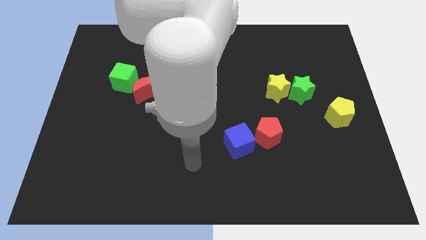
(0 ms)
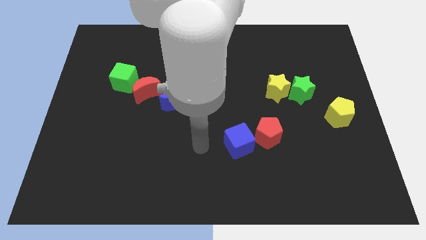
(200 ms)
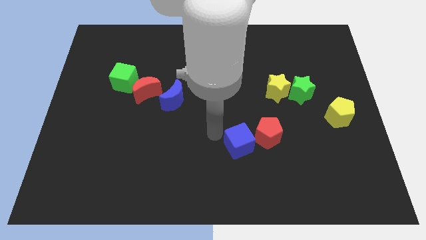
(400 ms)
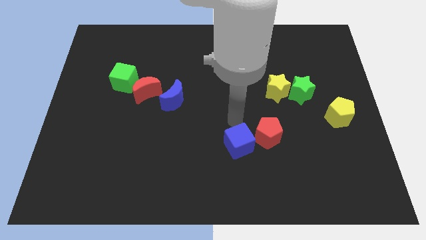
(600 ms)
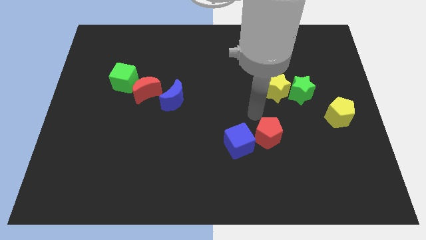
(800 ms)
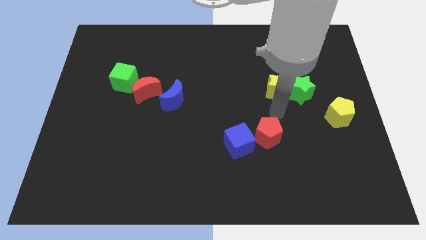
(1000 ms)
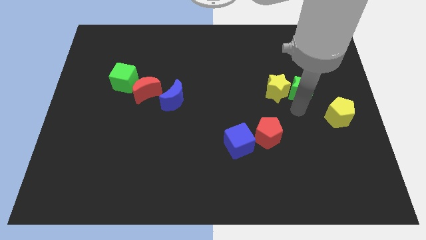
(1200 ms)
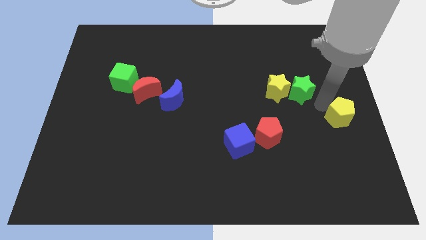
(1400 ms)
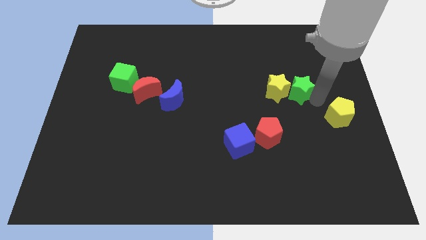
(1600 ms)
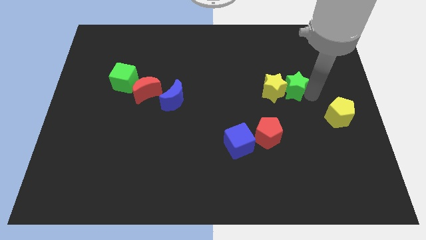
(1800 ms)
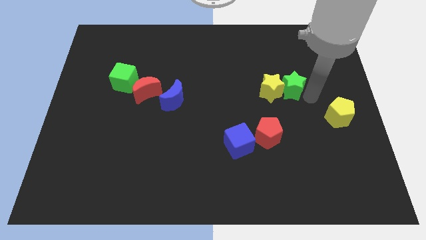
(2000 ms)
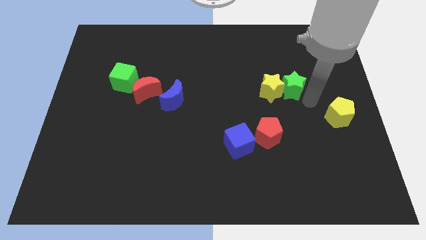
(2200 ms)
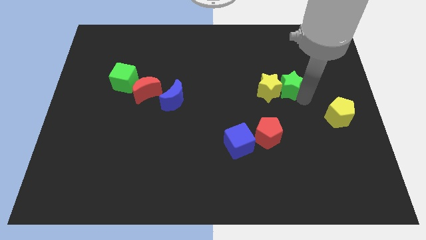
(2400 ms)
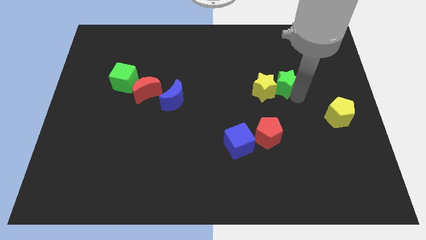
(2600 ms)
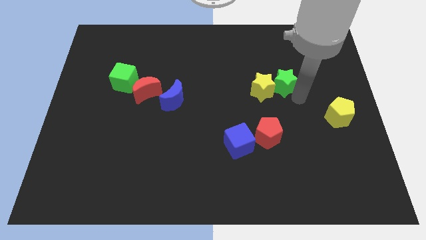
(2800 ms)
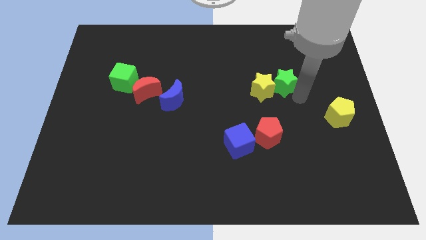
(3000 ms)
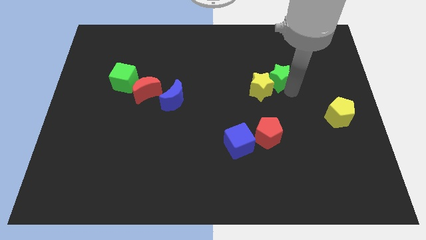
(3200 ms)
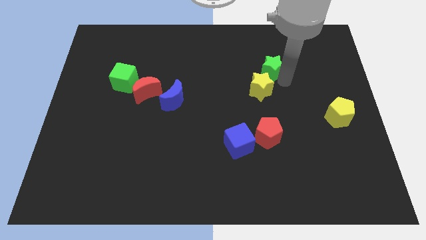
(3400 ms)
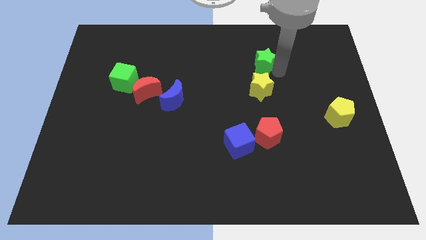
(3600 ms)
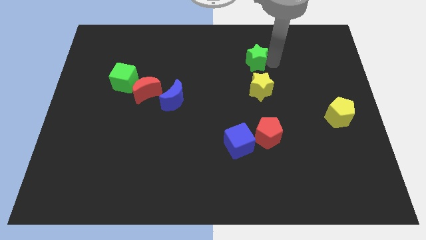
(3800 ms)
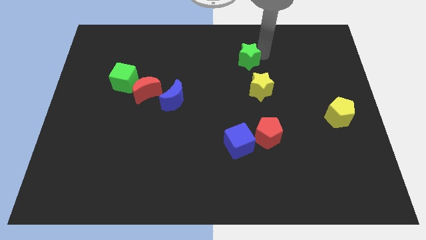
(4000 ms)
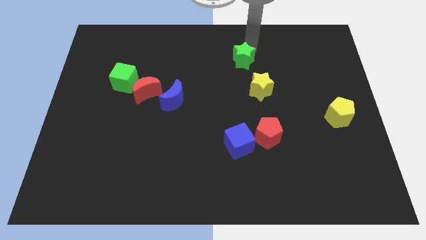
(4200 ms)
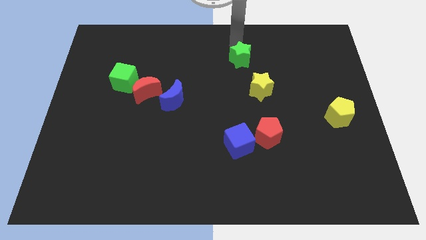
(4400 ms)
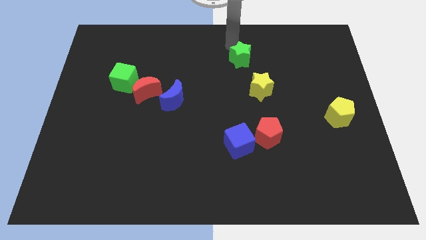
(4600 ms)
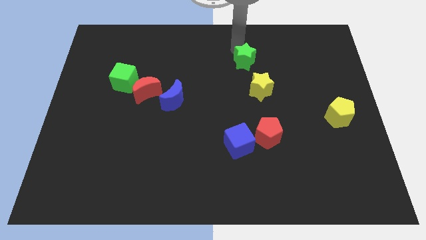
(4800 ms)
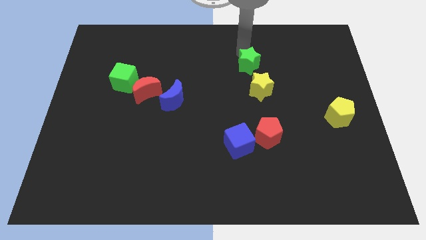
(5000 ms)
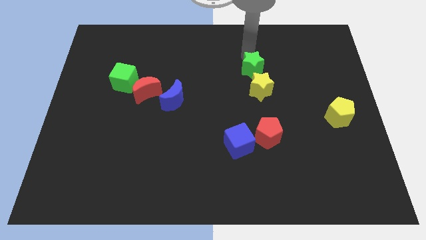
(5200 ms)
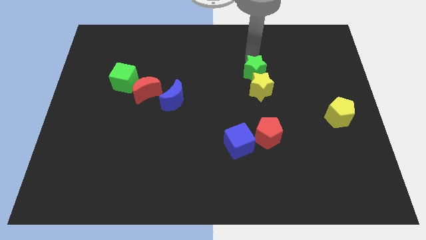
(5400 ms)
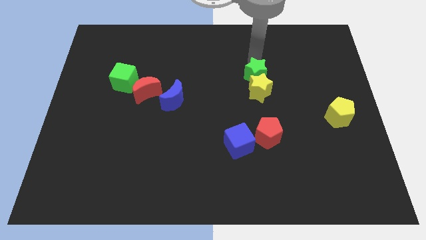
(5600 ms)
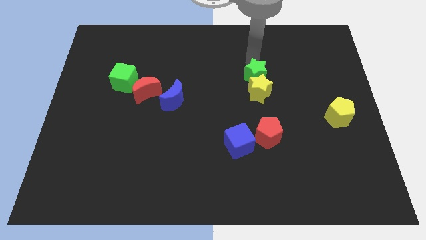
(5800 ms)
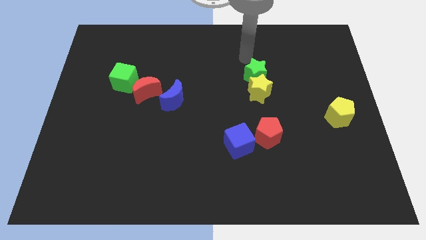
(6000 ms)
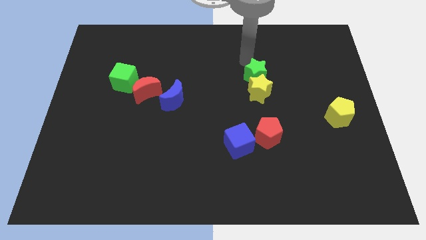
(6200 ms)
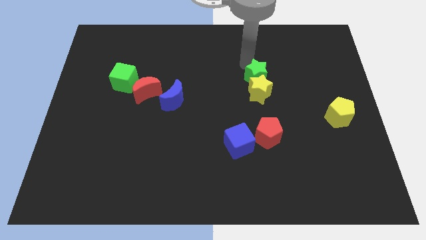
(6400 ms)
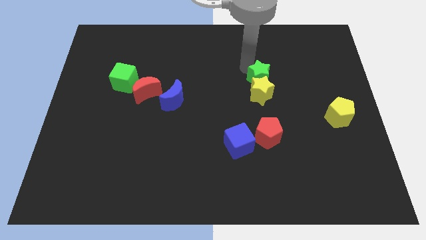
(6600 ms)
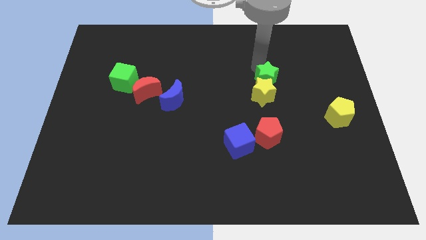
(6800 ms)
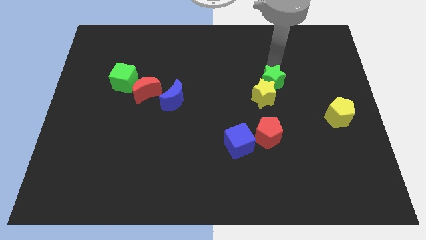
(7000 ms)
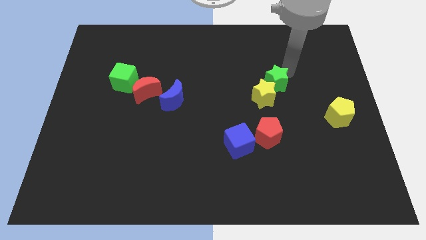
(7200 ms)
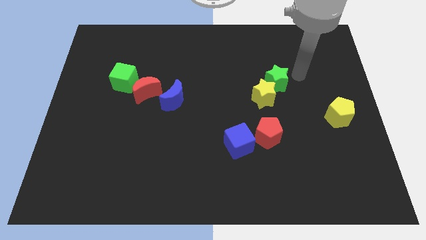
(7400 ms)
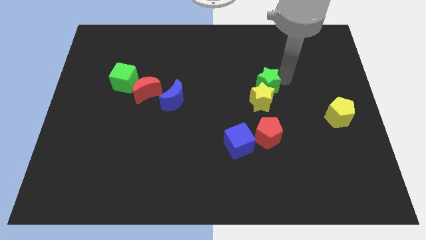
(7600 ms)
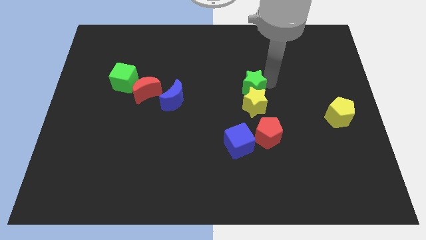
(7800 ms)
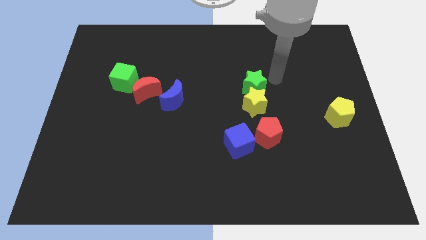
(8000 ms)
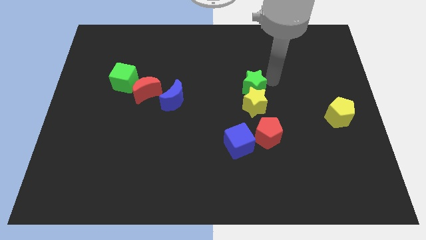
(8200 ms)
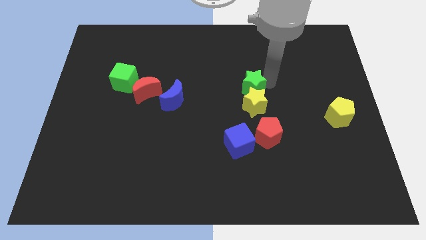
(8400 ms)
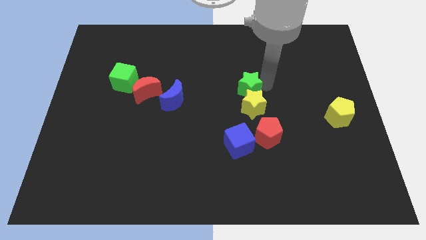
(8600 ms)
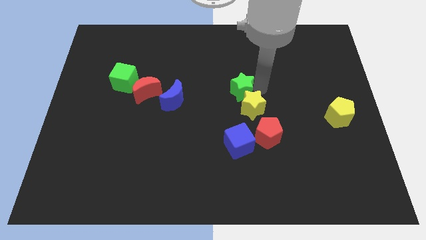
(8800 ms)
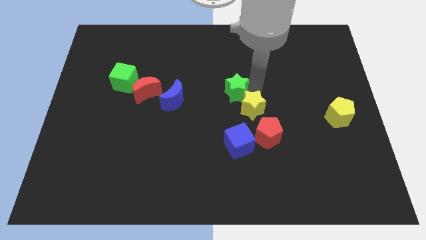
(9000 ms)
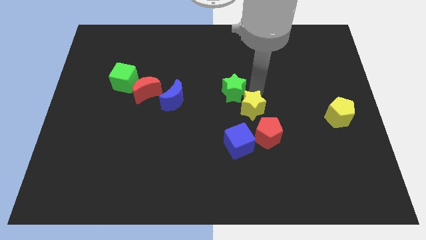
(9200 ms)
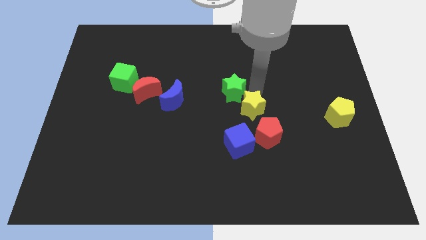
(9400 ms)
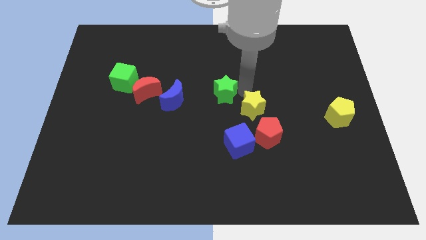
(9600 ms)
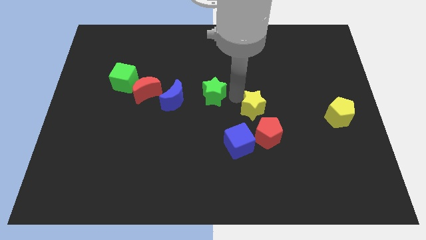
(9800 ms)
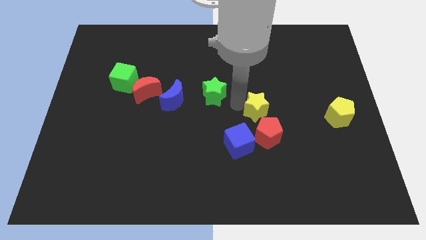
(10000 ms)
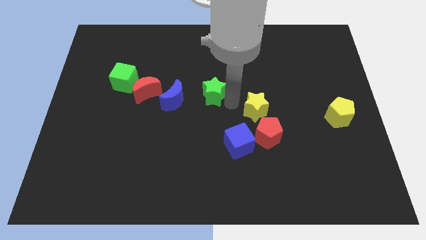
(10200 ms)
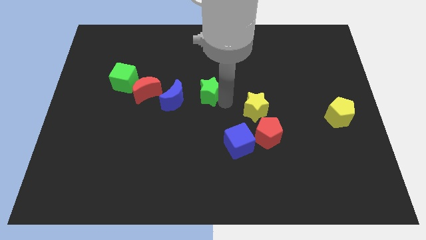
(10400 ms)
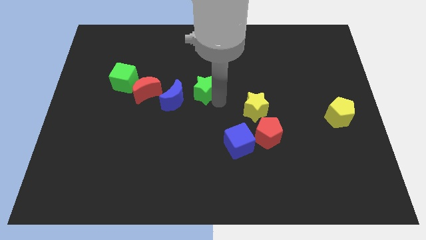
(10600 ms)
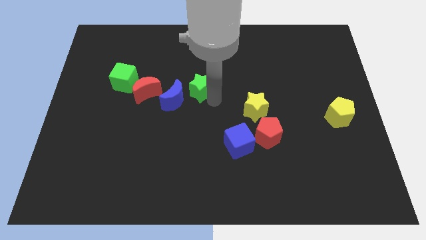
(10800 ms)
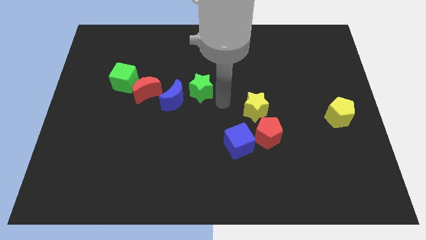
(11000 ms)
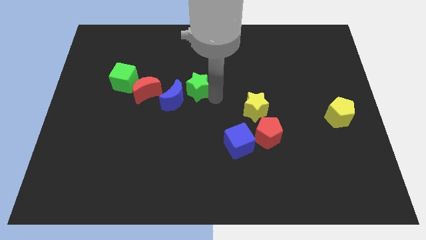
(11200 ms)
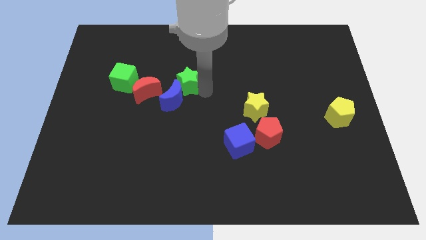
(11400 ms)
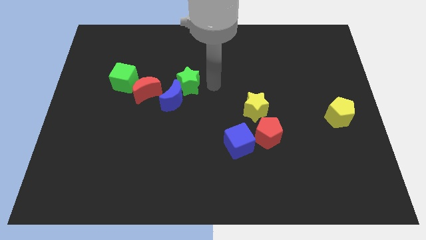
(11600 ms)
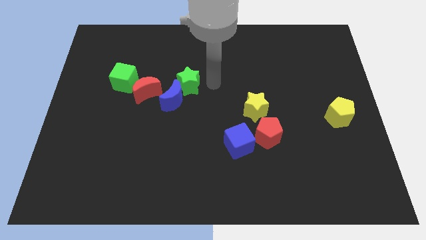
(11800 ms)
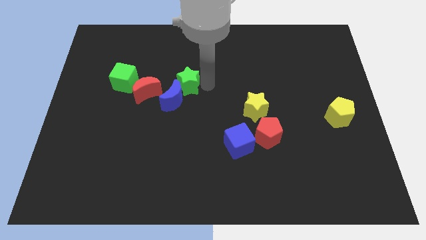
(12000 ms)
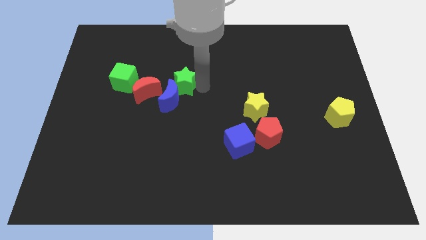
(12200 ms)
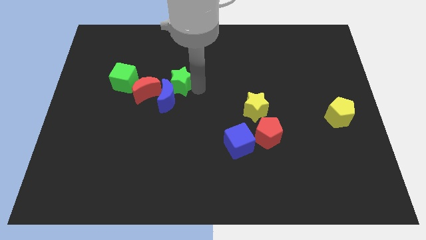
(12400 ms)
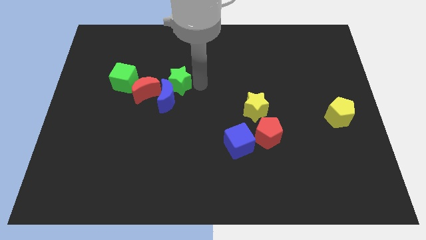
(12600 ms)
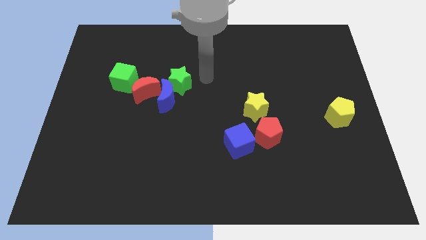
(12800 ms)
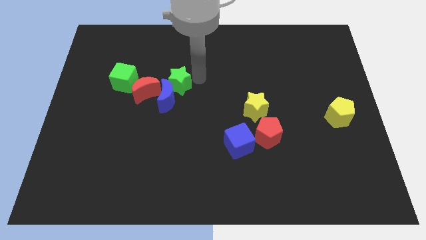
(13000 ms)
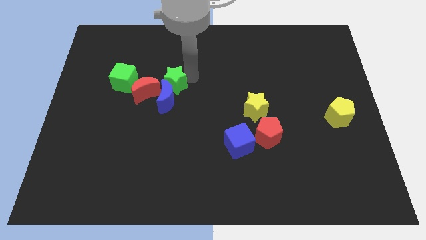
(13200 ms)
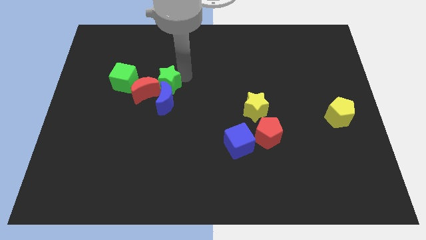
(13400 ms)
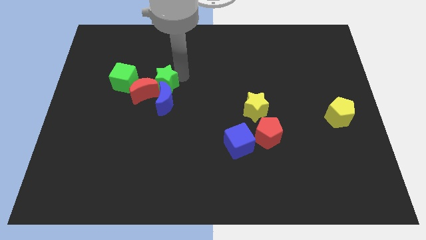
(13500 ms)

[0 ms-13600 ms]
put the green star next to the red moon

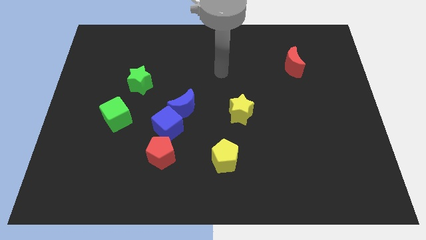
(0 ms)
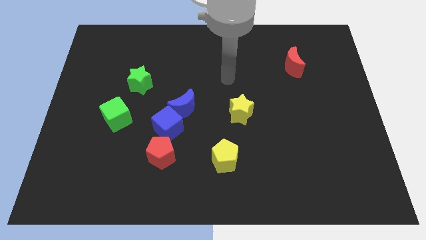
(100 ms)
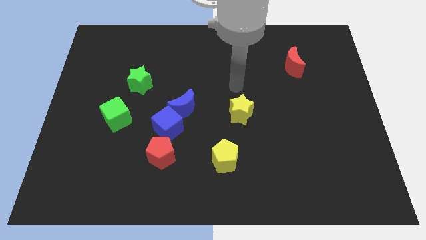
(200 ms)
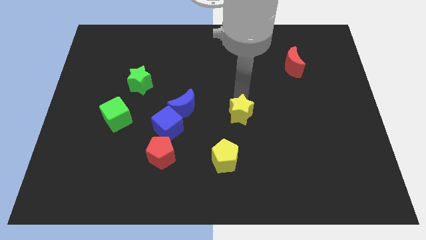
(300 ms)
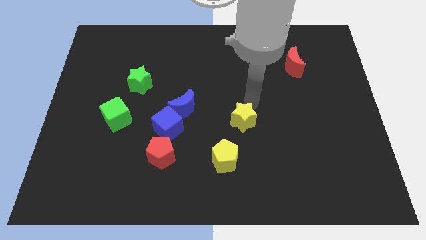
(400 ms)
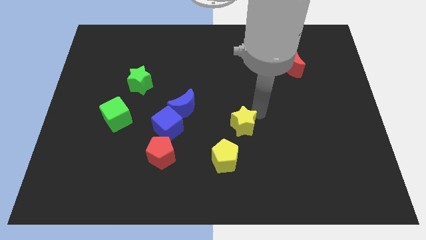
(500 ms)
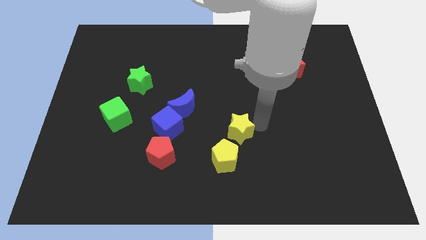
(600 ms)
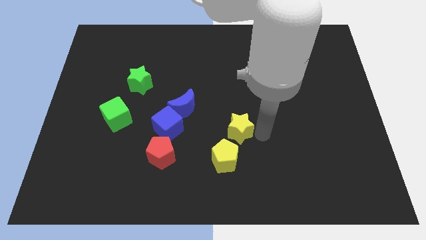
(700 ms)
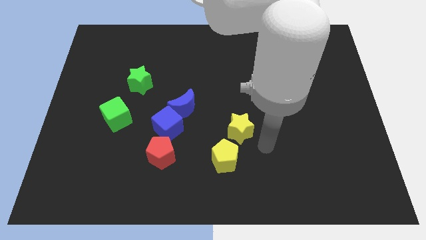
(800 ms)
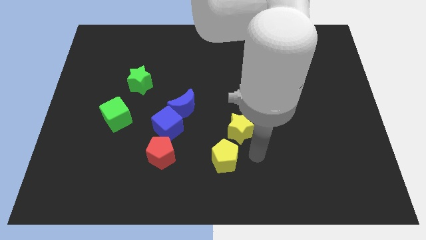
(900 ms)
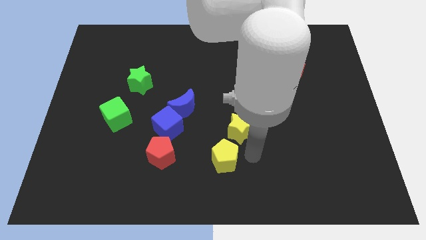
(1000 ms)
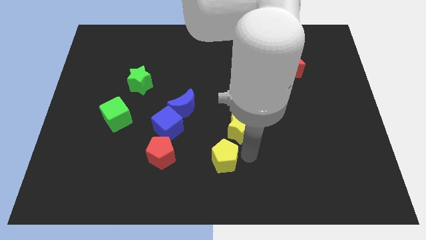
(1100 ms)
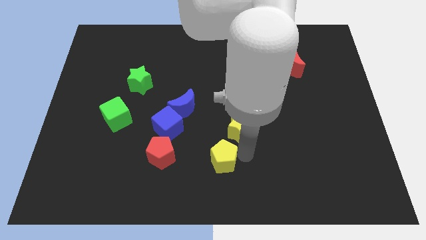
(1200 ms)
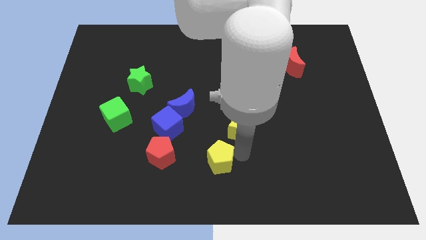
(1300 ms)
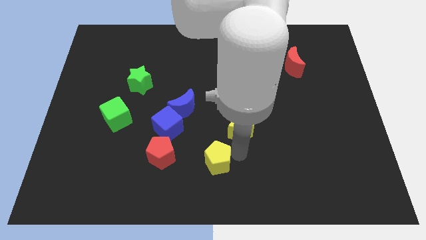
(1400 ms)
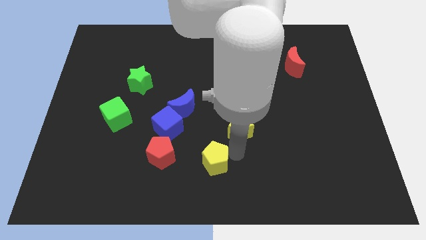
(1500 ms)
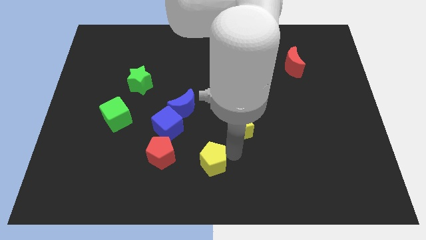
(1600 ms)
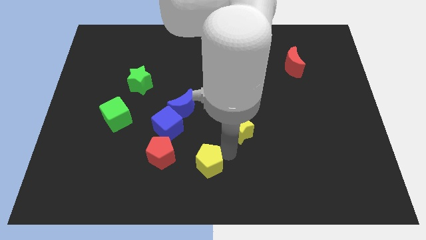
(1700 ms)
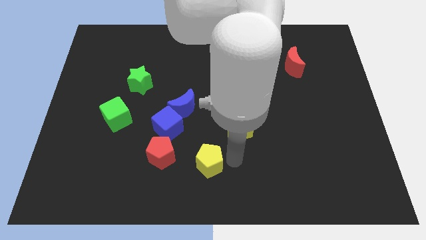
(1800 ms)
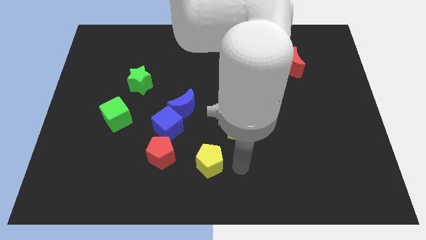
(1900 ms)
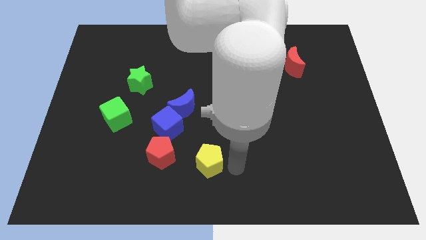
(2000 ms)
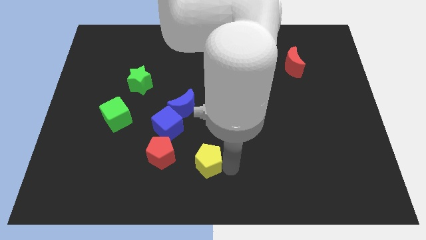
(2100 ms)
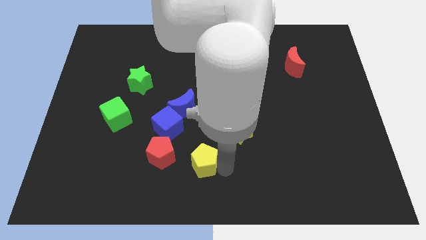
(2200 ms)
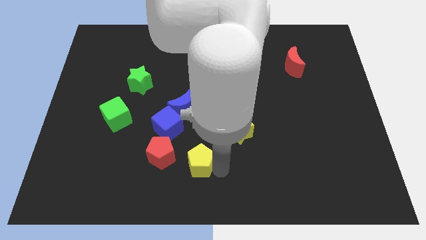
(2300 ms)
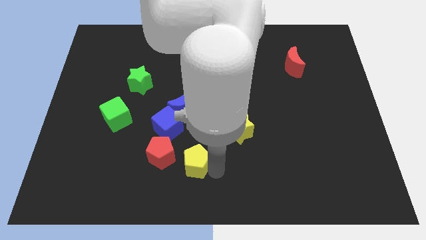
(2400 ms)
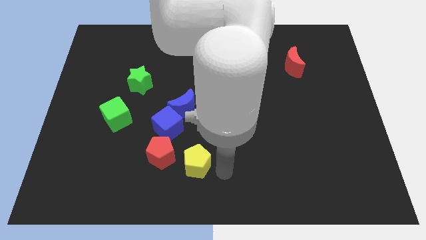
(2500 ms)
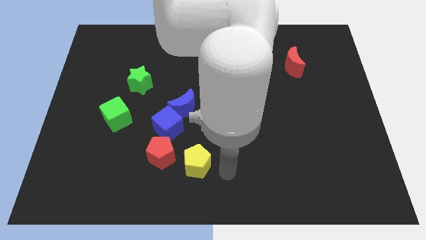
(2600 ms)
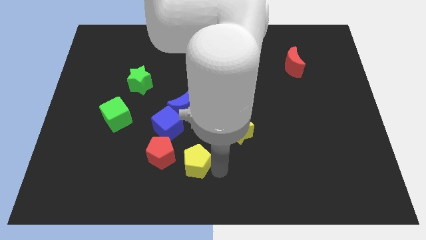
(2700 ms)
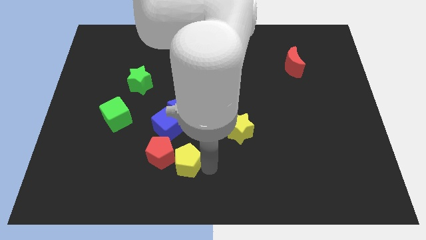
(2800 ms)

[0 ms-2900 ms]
put the yellow pentagon close to the red pentagon
